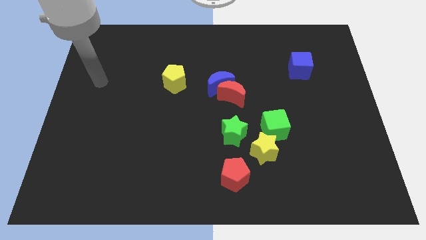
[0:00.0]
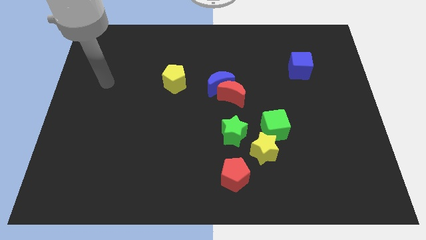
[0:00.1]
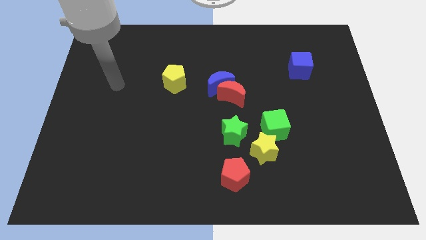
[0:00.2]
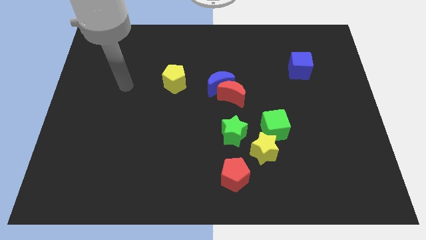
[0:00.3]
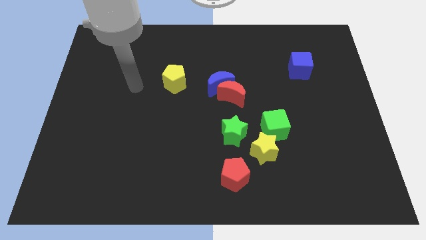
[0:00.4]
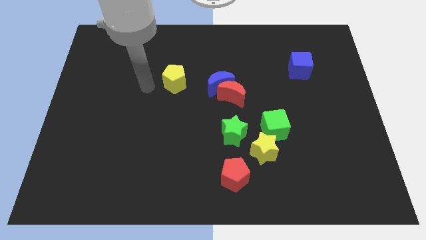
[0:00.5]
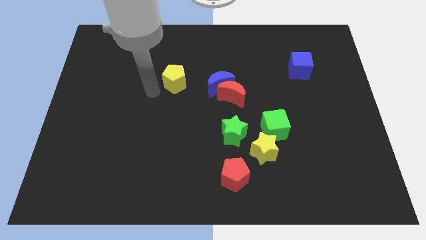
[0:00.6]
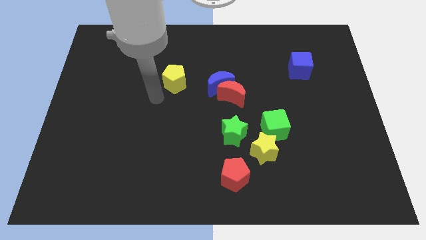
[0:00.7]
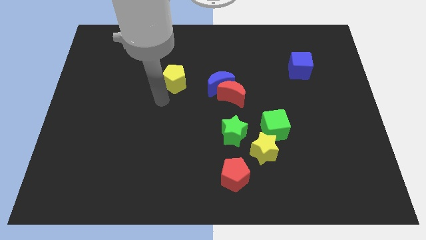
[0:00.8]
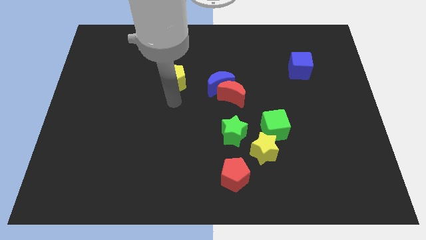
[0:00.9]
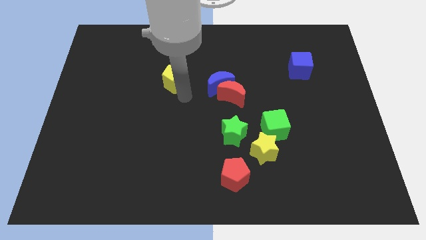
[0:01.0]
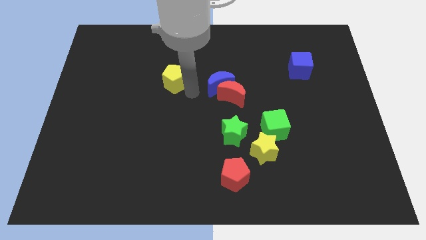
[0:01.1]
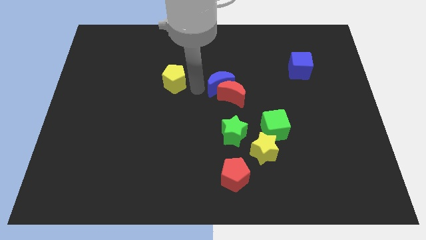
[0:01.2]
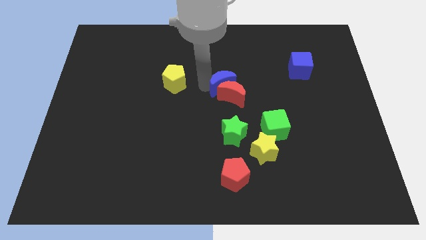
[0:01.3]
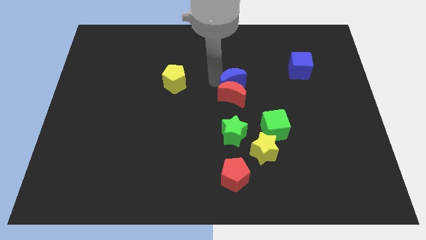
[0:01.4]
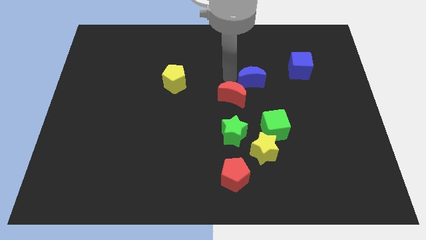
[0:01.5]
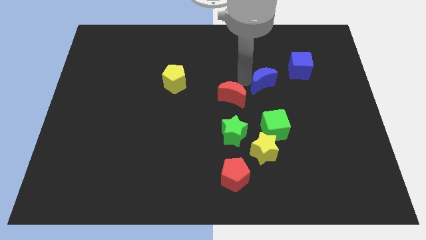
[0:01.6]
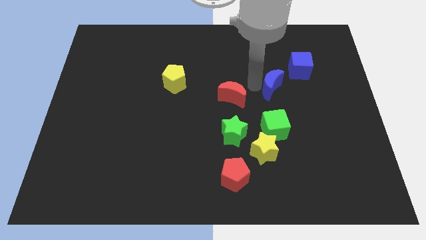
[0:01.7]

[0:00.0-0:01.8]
pull the red moon apart from the blue moon

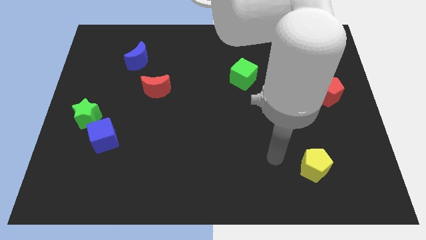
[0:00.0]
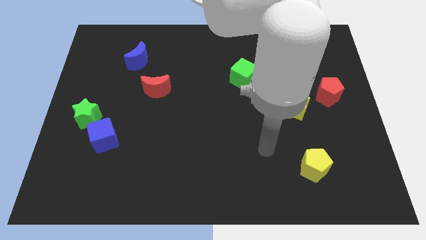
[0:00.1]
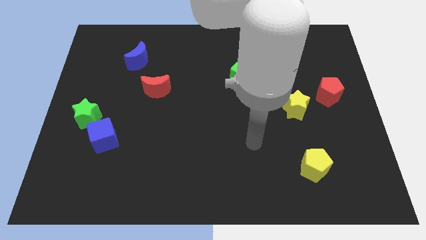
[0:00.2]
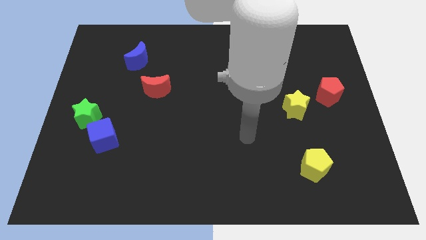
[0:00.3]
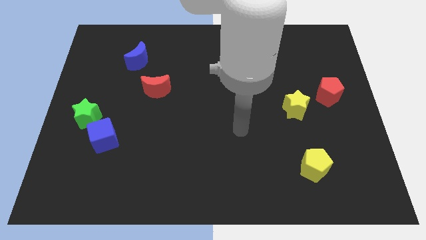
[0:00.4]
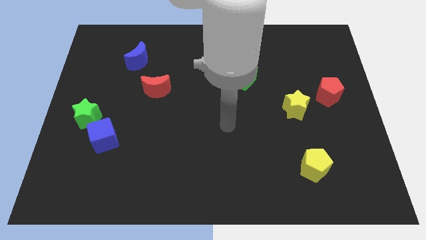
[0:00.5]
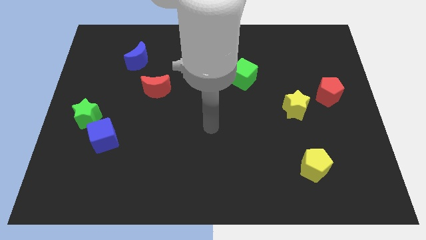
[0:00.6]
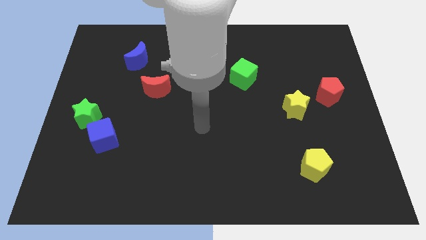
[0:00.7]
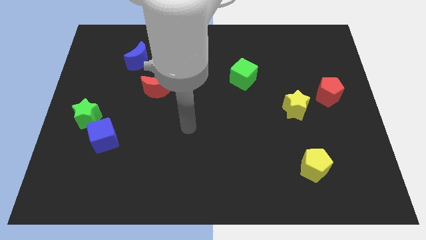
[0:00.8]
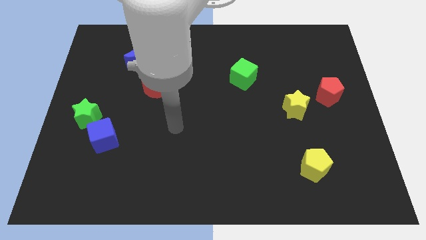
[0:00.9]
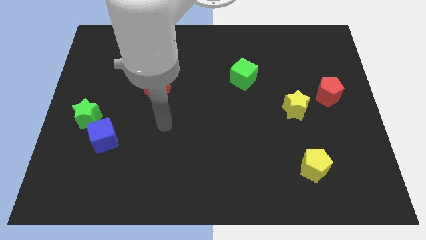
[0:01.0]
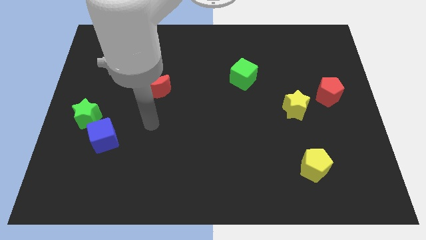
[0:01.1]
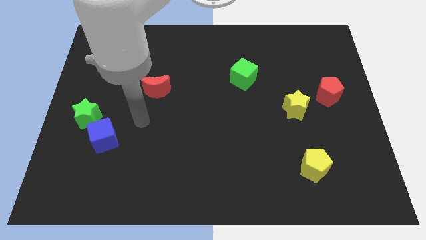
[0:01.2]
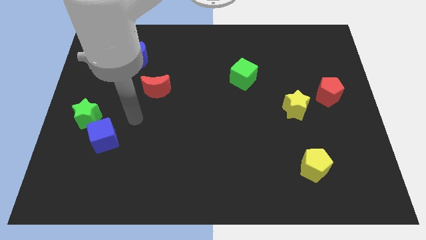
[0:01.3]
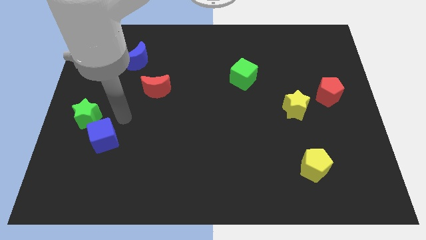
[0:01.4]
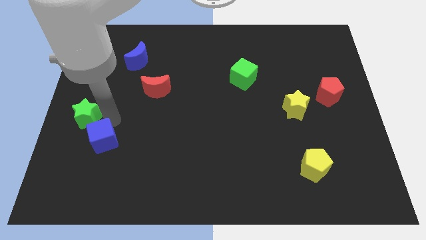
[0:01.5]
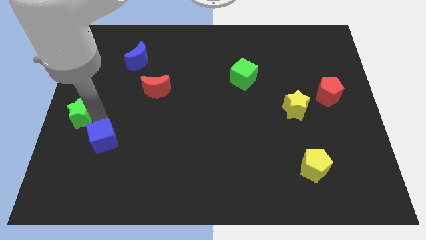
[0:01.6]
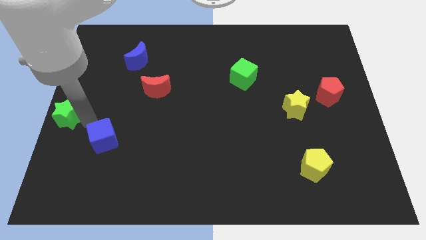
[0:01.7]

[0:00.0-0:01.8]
move the blue cube away from the green star

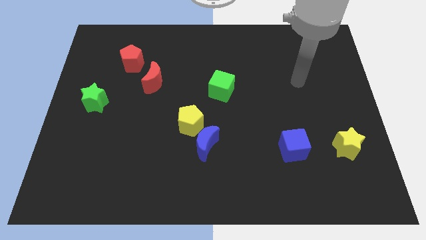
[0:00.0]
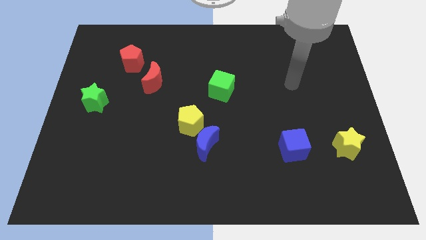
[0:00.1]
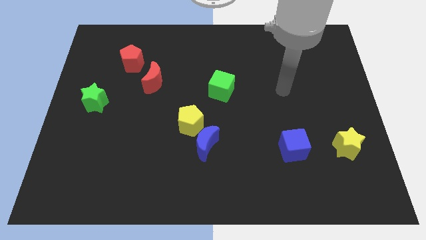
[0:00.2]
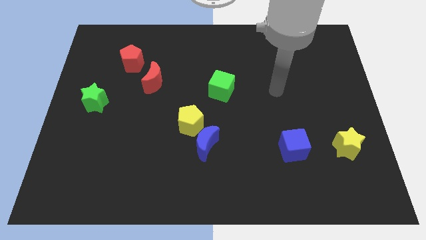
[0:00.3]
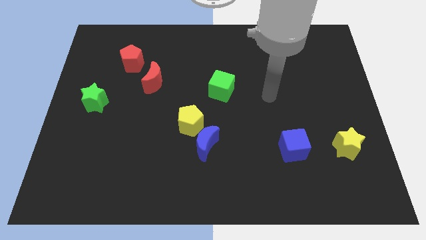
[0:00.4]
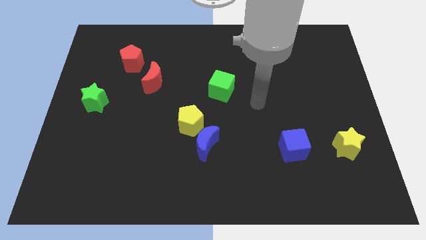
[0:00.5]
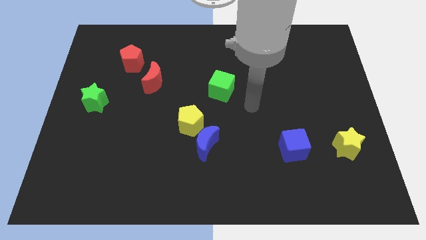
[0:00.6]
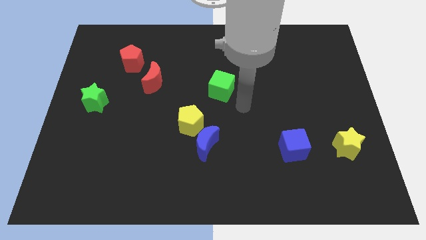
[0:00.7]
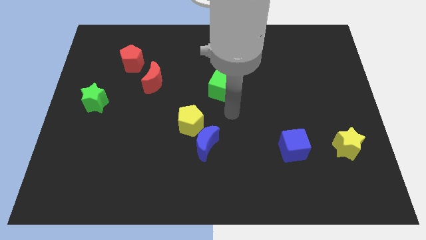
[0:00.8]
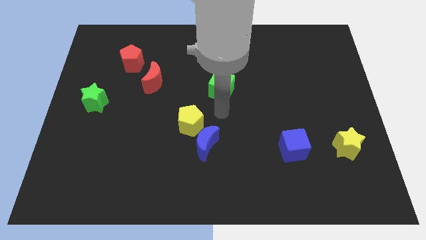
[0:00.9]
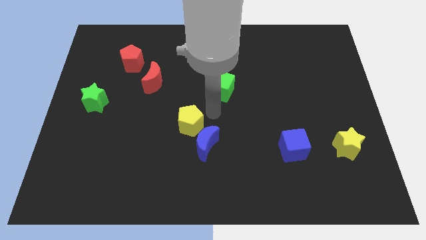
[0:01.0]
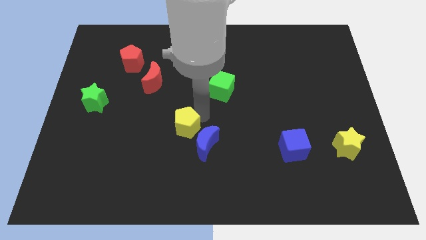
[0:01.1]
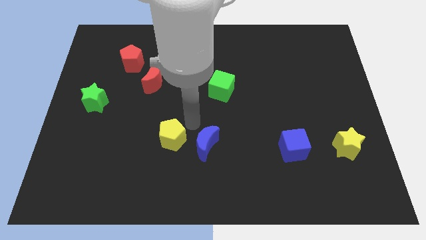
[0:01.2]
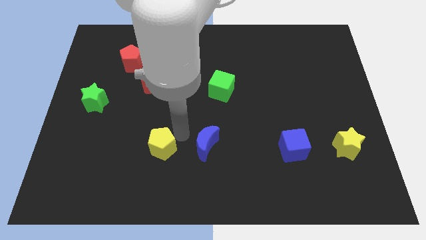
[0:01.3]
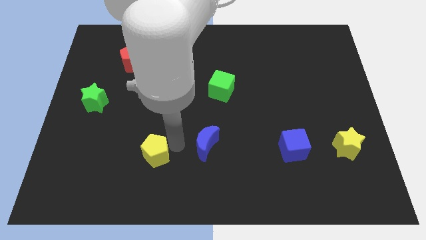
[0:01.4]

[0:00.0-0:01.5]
separate the blue moon from the yellow pentagon

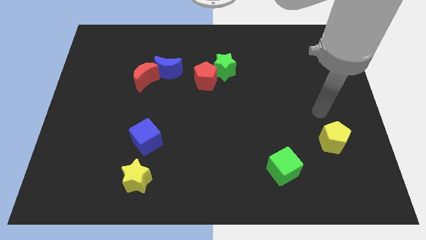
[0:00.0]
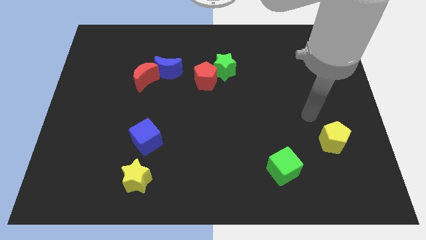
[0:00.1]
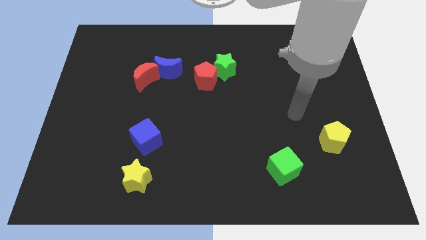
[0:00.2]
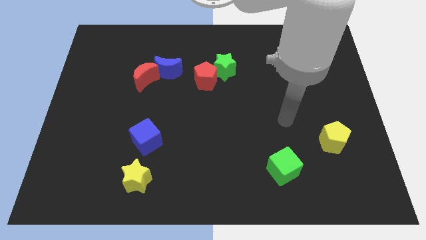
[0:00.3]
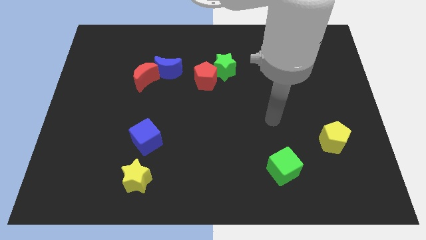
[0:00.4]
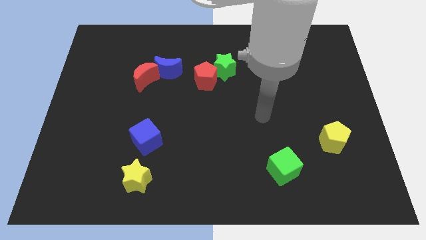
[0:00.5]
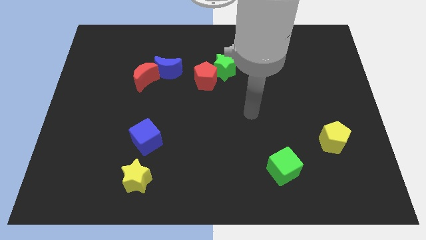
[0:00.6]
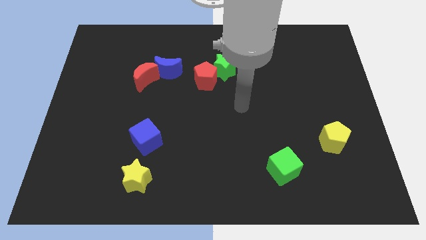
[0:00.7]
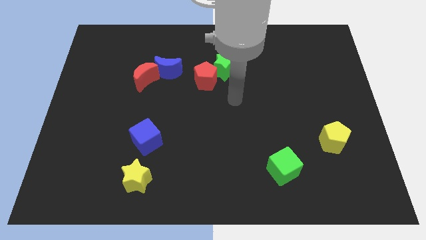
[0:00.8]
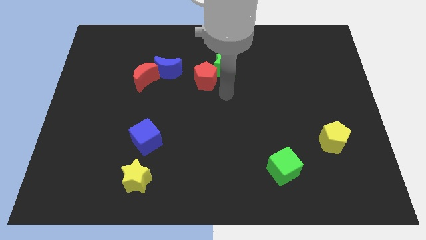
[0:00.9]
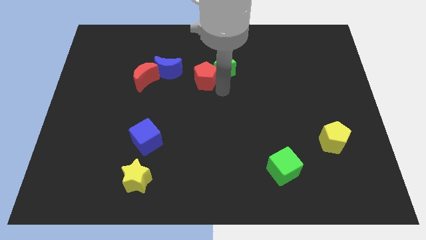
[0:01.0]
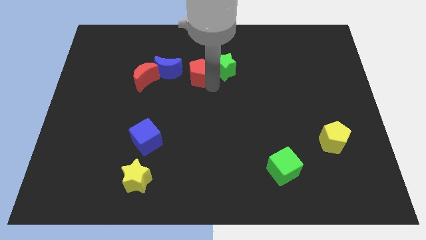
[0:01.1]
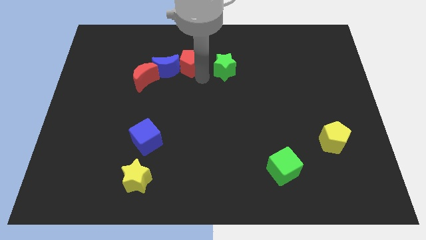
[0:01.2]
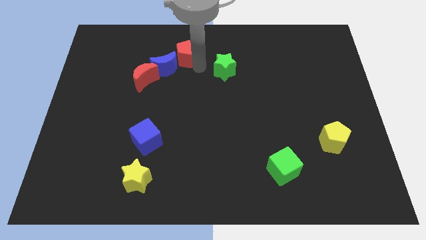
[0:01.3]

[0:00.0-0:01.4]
move the green star away from the red pentagon

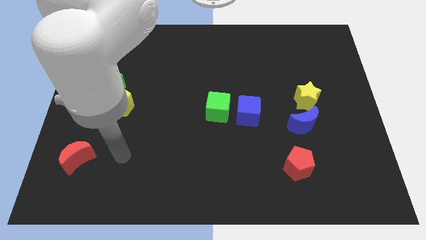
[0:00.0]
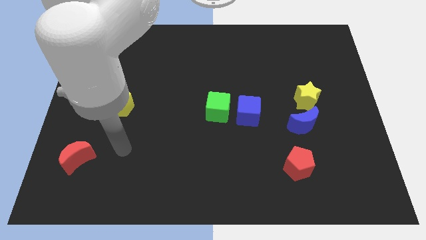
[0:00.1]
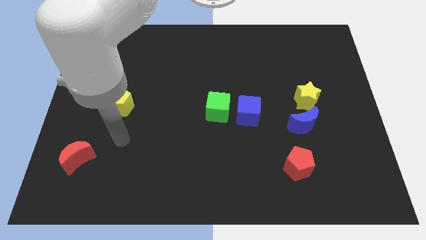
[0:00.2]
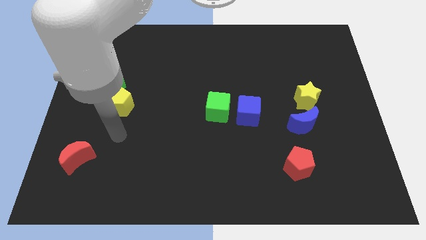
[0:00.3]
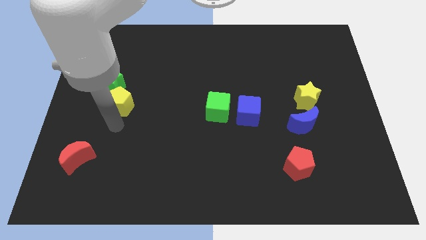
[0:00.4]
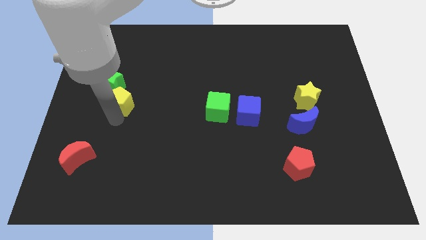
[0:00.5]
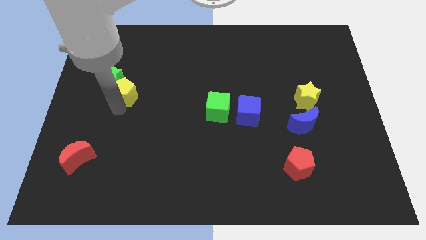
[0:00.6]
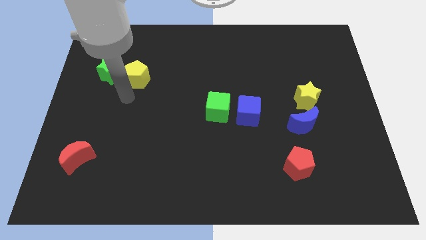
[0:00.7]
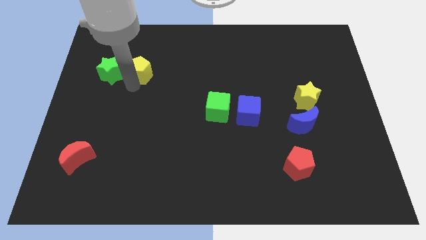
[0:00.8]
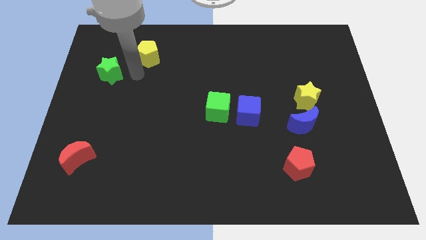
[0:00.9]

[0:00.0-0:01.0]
move the green star away from the yellow pentagon

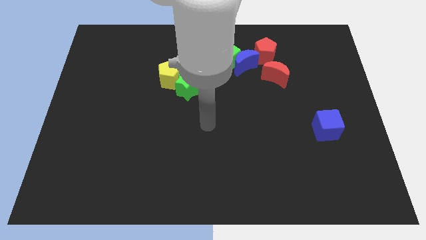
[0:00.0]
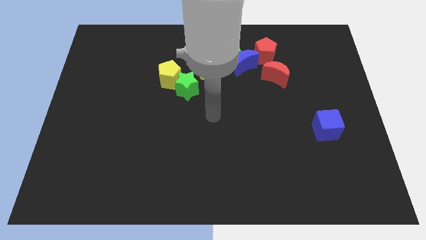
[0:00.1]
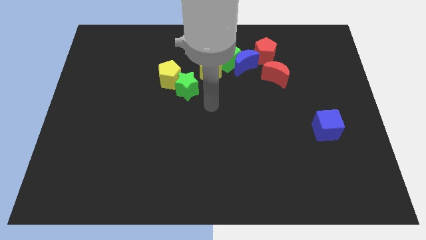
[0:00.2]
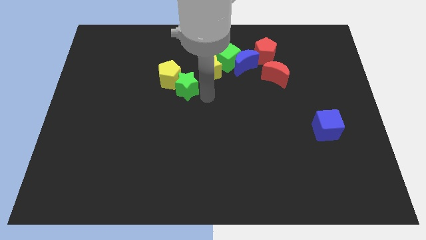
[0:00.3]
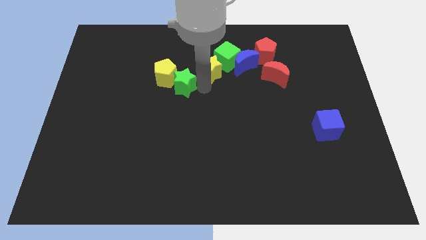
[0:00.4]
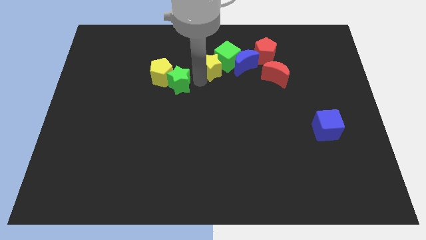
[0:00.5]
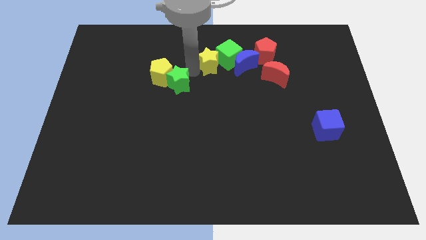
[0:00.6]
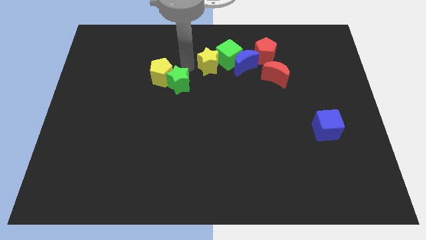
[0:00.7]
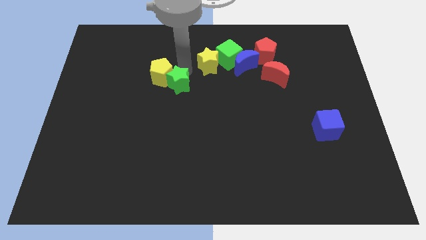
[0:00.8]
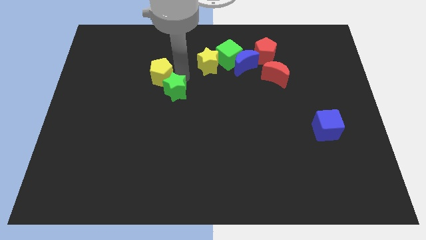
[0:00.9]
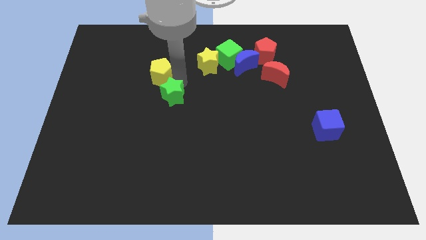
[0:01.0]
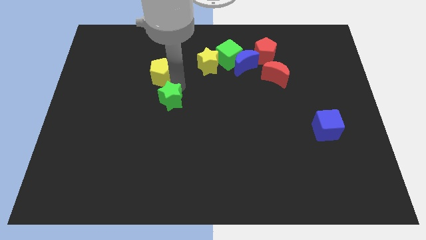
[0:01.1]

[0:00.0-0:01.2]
pull the green star apart from the yellow pentagon and yellow star

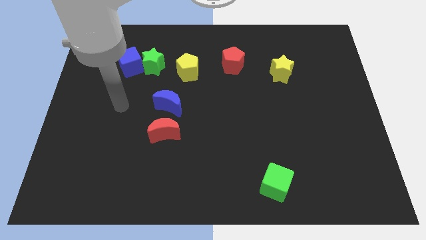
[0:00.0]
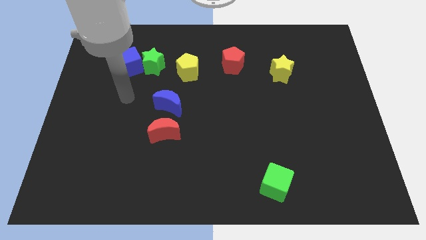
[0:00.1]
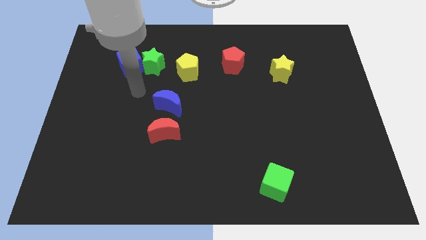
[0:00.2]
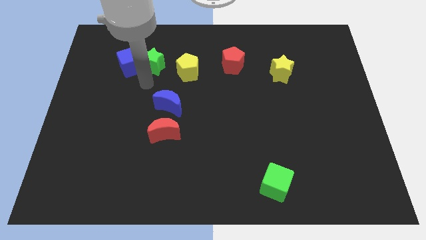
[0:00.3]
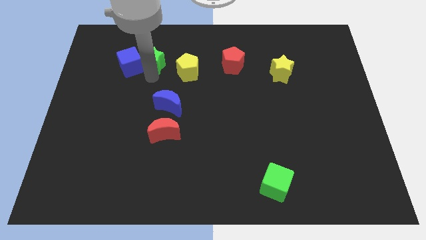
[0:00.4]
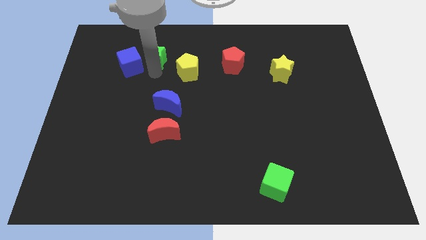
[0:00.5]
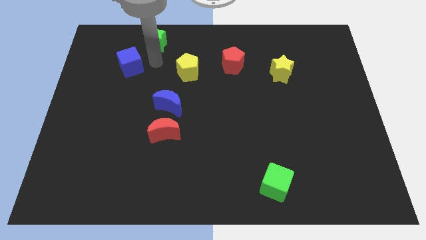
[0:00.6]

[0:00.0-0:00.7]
separate the blue cube from the green star
